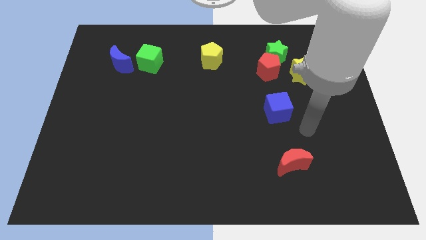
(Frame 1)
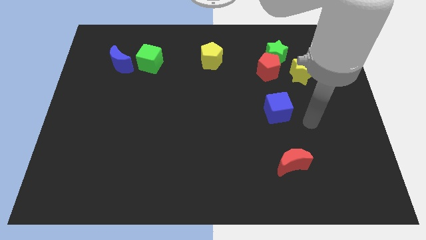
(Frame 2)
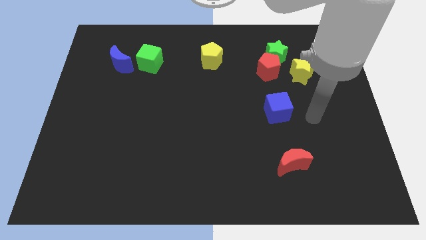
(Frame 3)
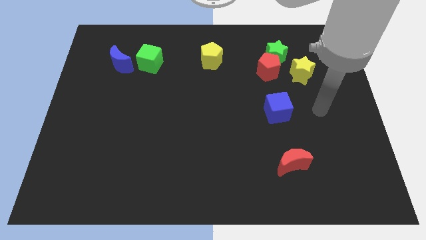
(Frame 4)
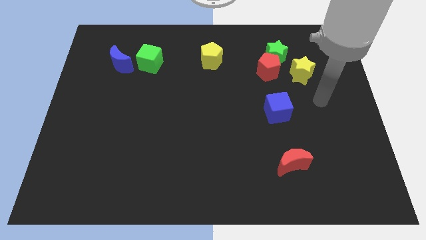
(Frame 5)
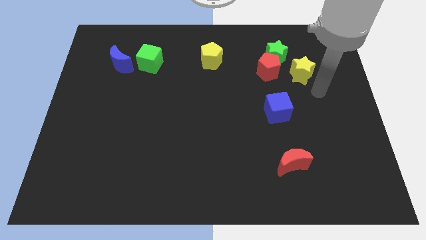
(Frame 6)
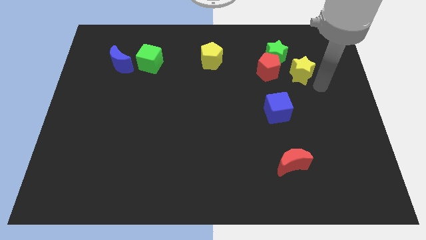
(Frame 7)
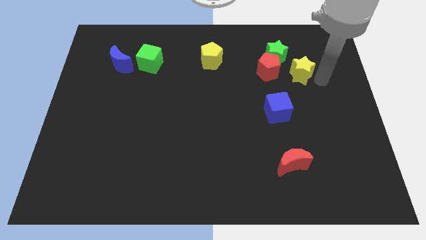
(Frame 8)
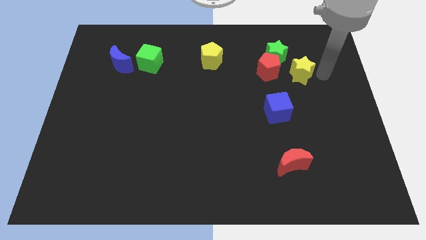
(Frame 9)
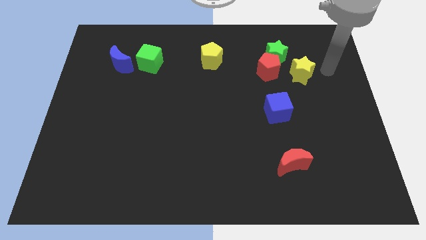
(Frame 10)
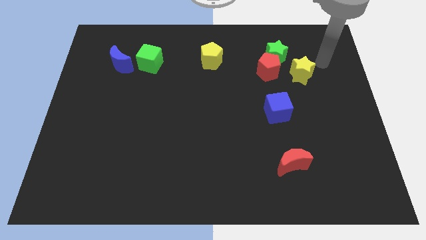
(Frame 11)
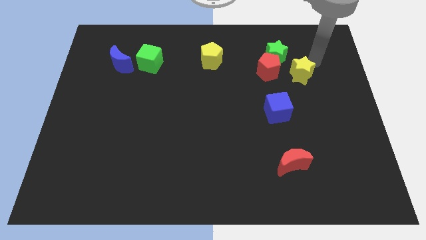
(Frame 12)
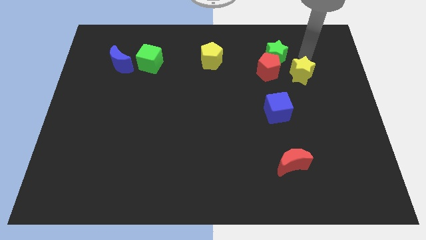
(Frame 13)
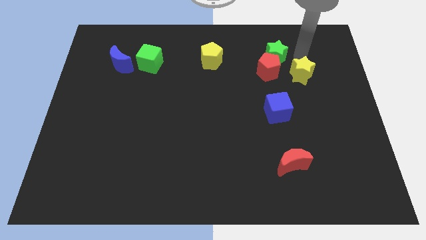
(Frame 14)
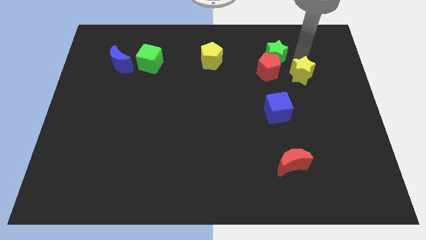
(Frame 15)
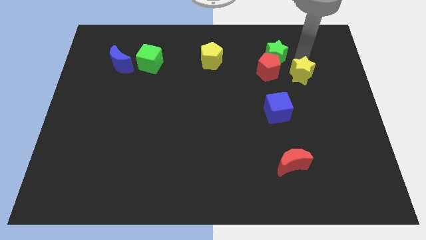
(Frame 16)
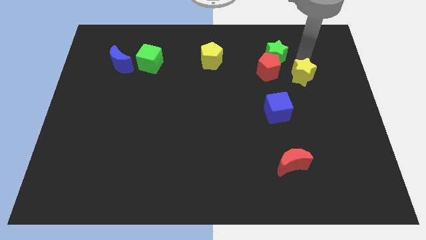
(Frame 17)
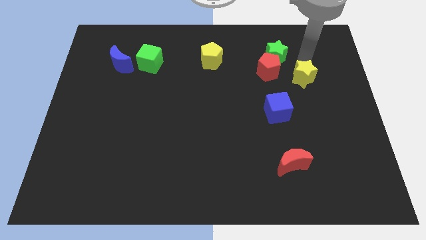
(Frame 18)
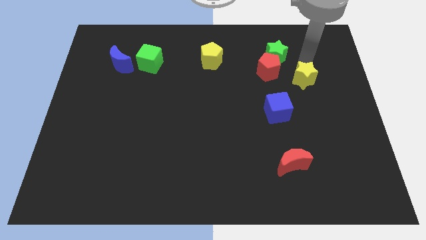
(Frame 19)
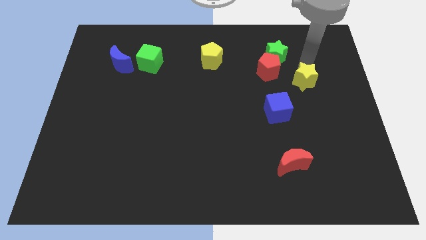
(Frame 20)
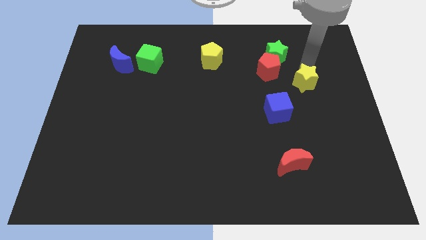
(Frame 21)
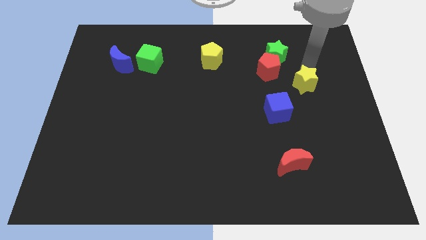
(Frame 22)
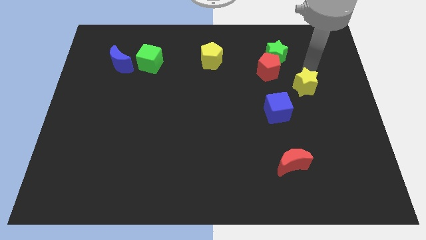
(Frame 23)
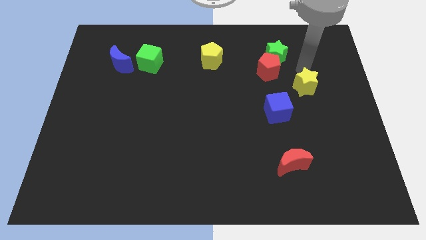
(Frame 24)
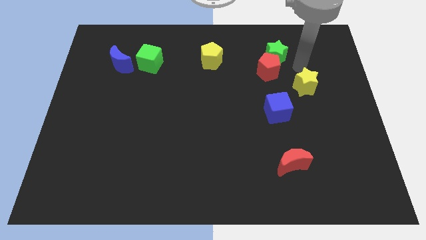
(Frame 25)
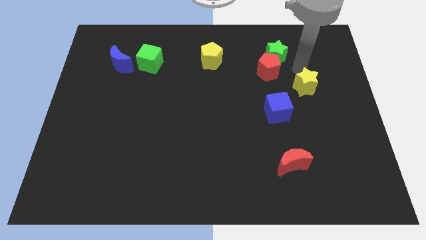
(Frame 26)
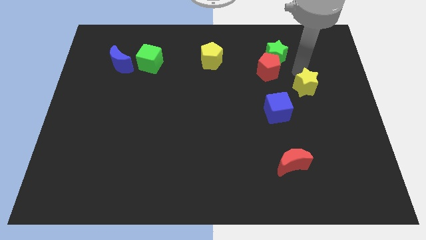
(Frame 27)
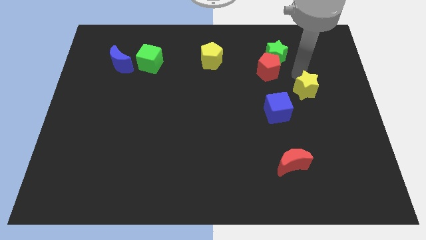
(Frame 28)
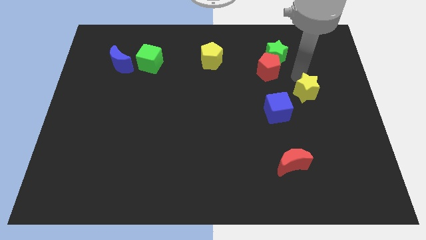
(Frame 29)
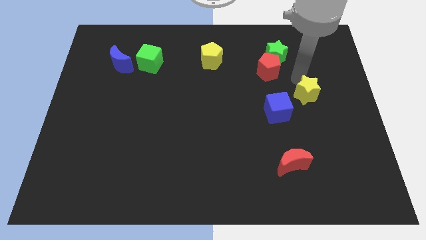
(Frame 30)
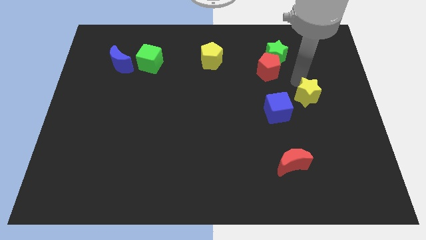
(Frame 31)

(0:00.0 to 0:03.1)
slightly push the yellow star downwards

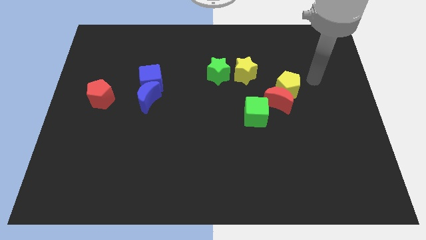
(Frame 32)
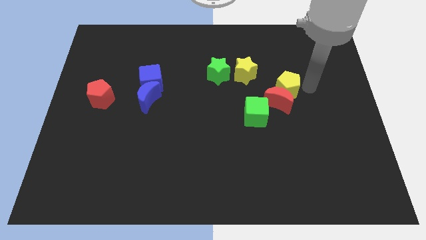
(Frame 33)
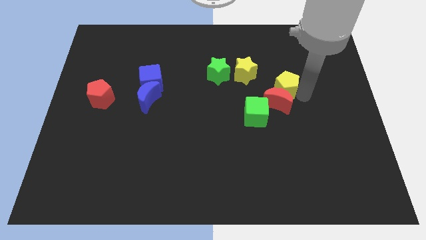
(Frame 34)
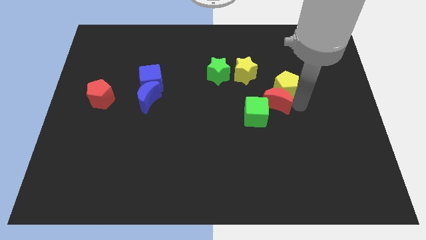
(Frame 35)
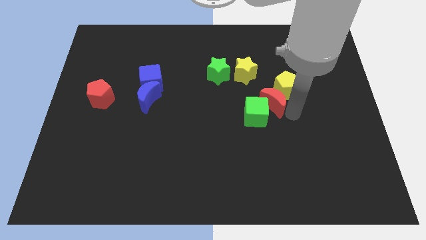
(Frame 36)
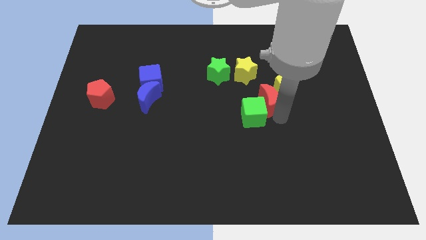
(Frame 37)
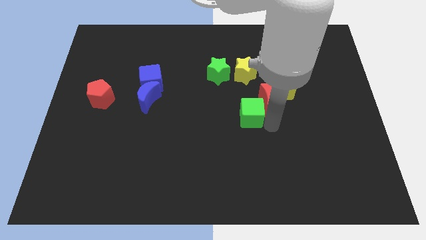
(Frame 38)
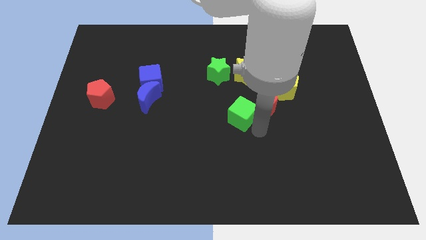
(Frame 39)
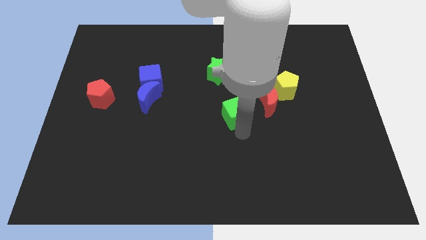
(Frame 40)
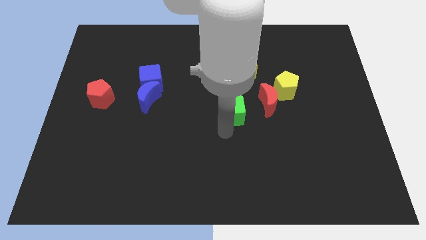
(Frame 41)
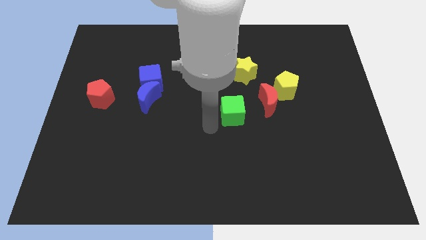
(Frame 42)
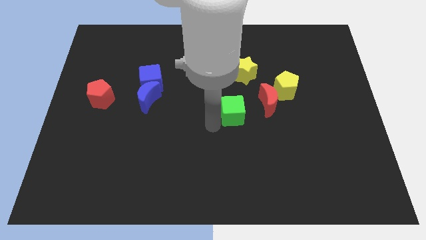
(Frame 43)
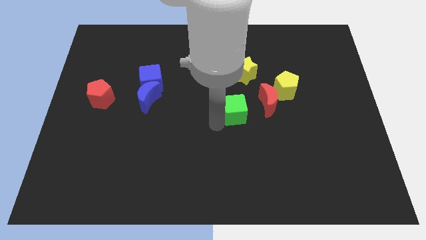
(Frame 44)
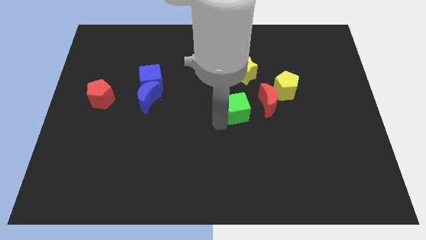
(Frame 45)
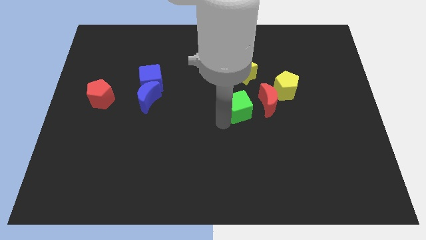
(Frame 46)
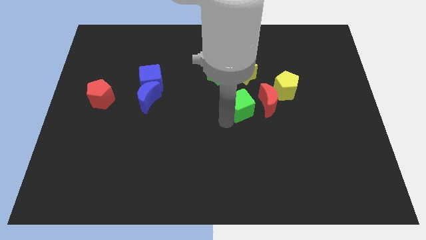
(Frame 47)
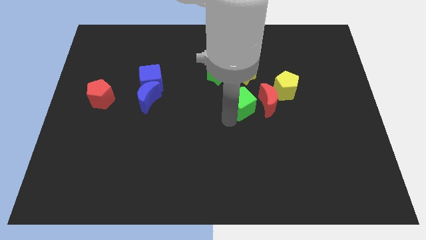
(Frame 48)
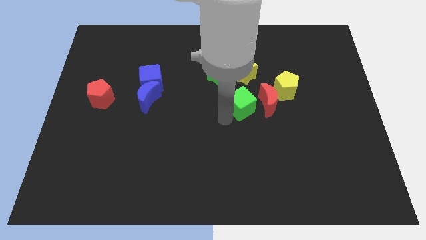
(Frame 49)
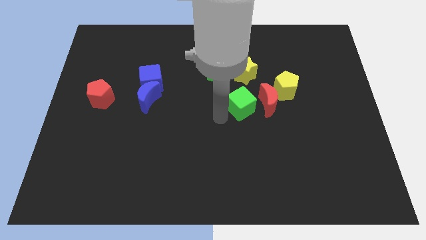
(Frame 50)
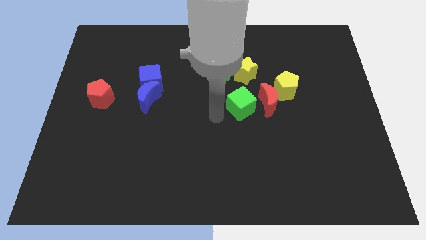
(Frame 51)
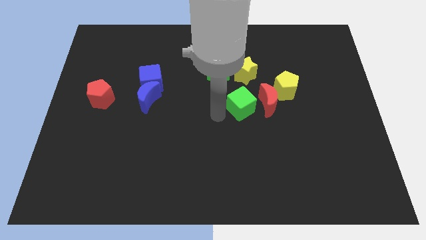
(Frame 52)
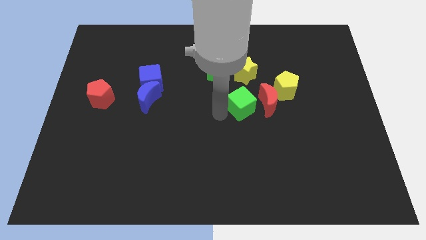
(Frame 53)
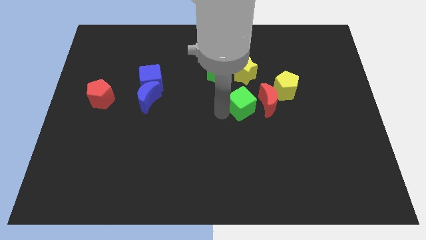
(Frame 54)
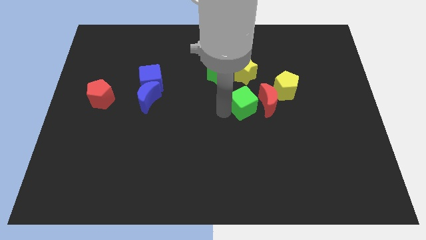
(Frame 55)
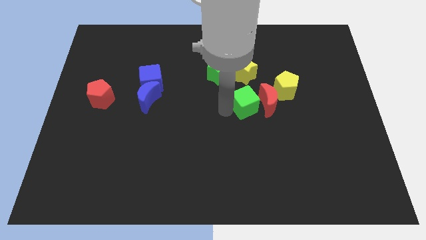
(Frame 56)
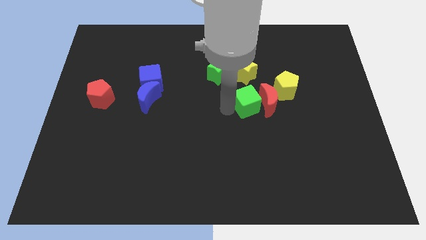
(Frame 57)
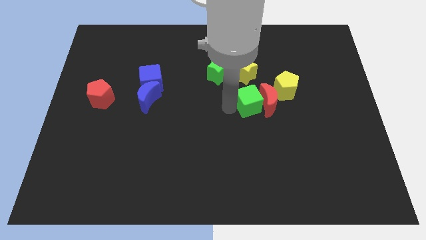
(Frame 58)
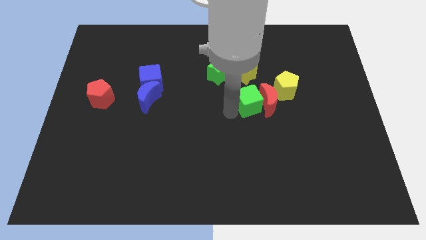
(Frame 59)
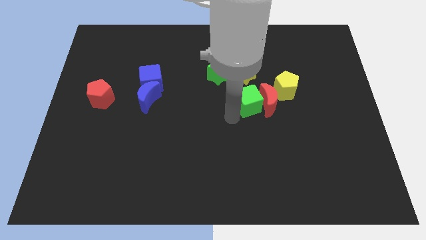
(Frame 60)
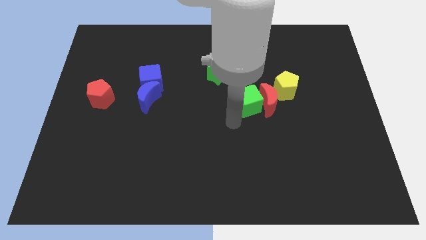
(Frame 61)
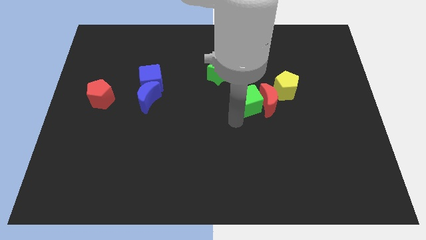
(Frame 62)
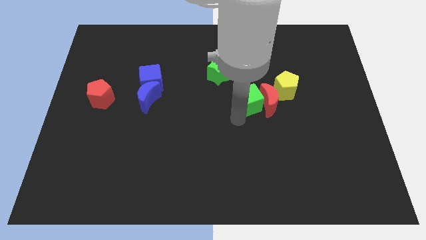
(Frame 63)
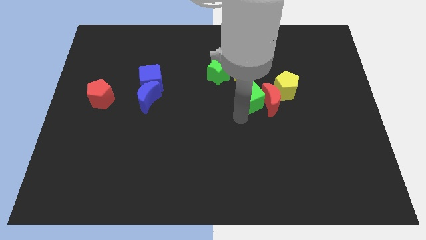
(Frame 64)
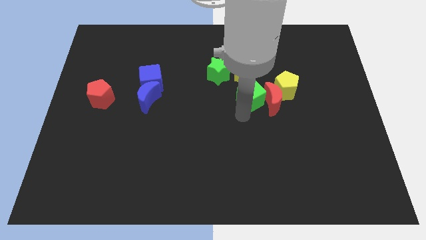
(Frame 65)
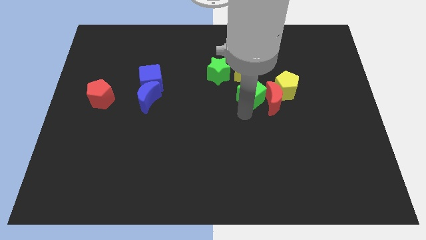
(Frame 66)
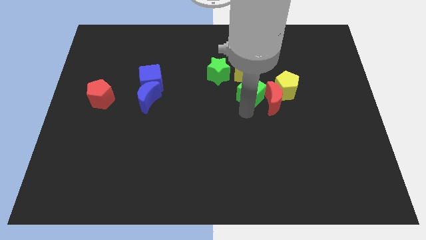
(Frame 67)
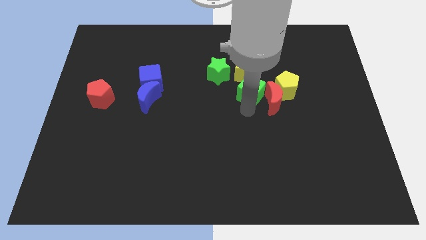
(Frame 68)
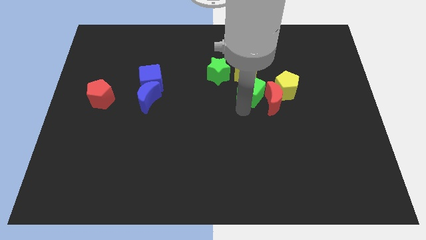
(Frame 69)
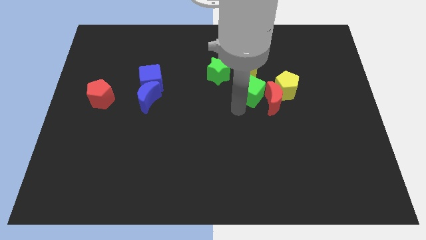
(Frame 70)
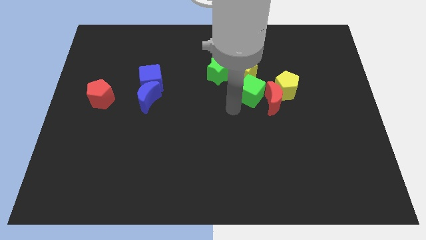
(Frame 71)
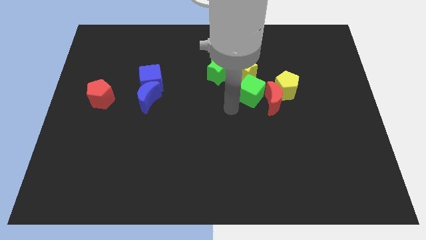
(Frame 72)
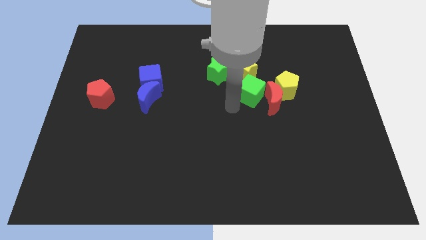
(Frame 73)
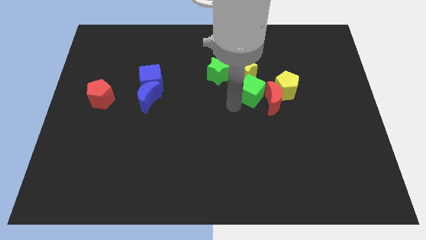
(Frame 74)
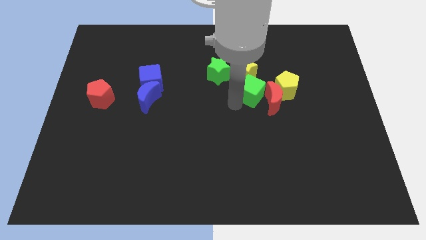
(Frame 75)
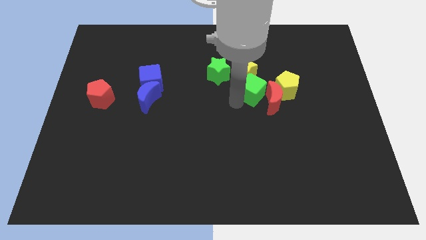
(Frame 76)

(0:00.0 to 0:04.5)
move the green cube up a little bit

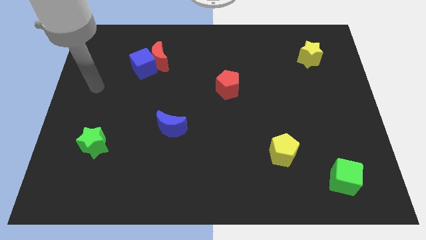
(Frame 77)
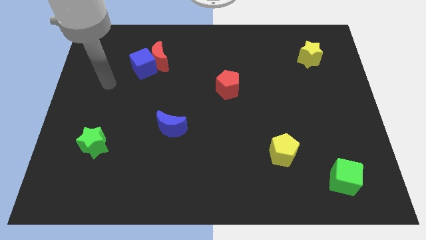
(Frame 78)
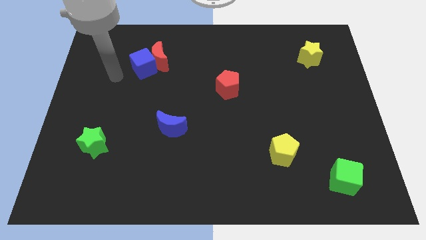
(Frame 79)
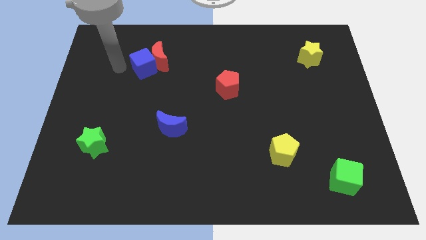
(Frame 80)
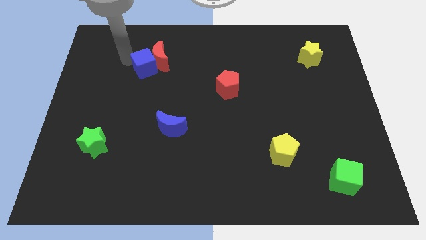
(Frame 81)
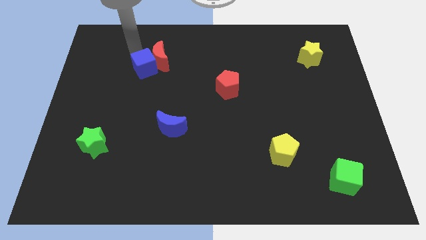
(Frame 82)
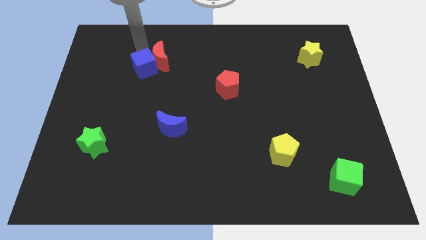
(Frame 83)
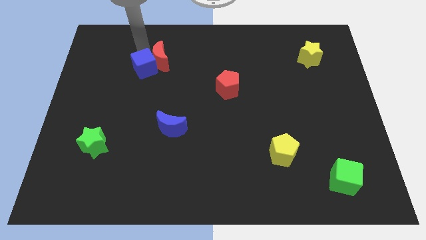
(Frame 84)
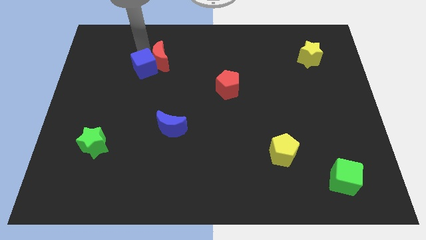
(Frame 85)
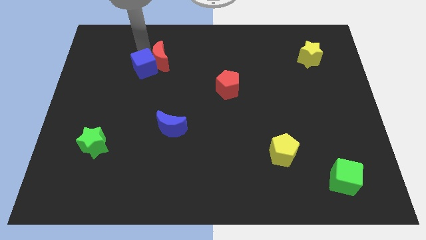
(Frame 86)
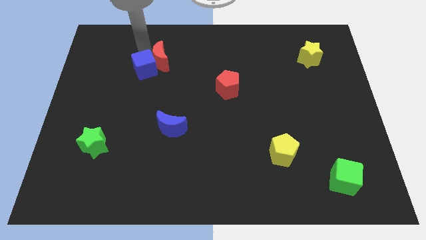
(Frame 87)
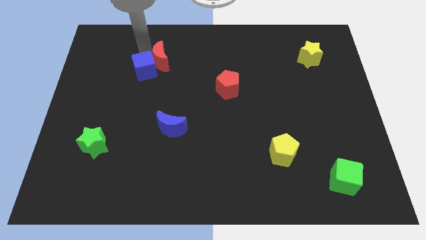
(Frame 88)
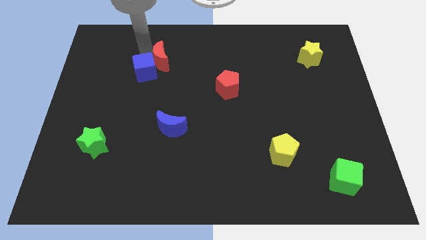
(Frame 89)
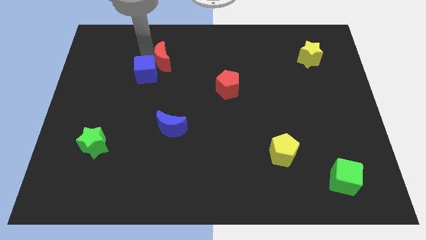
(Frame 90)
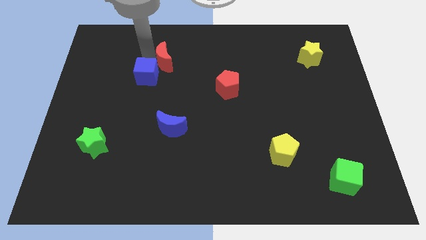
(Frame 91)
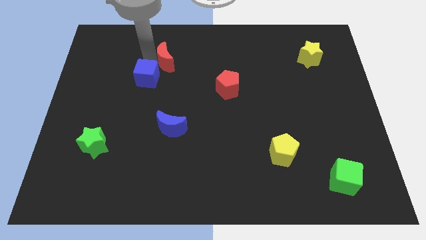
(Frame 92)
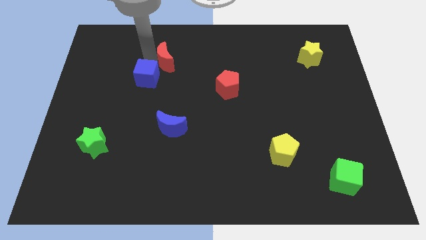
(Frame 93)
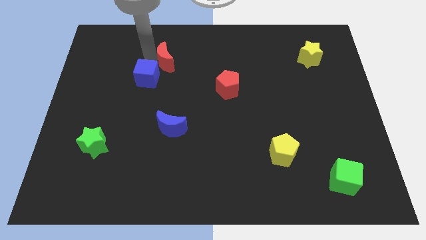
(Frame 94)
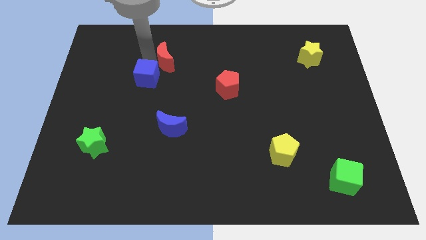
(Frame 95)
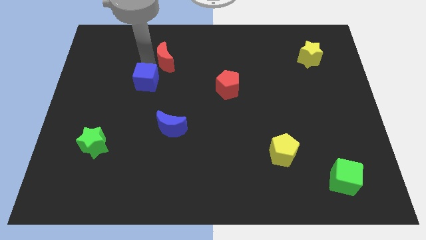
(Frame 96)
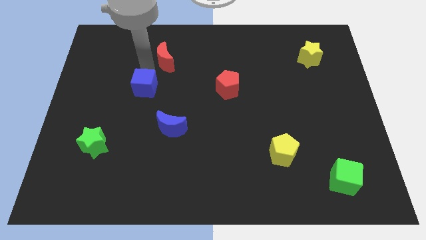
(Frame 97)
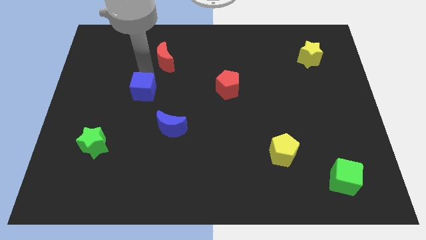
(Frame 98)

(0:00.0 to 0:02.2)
slide the blue cube downwards a little
